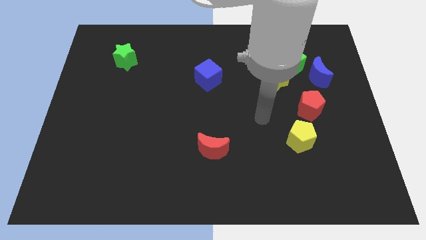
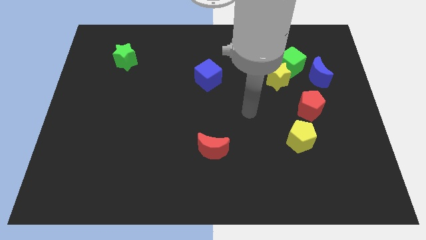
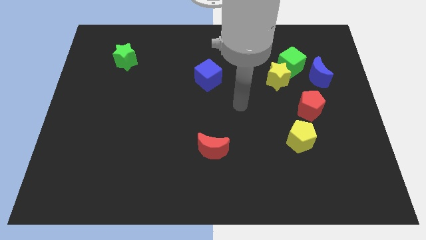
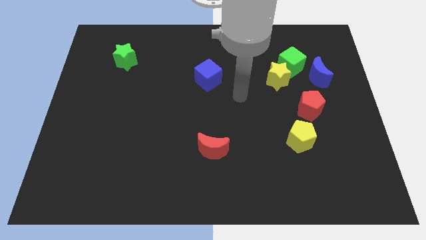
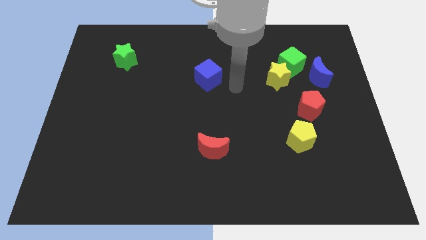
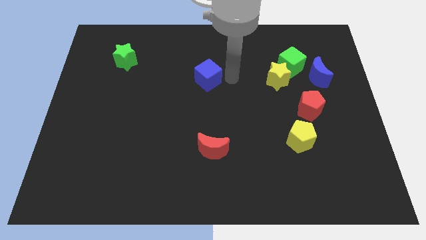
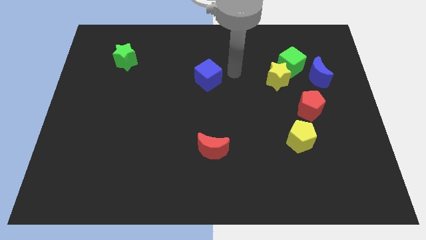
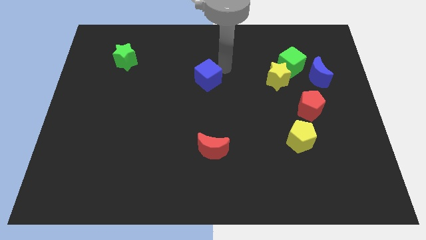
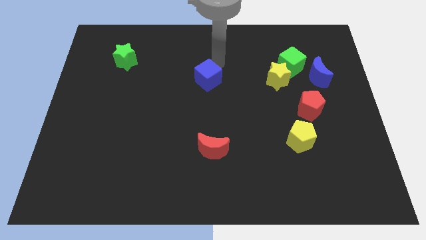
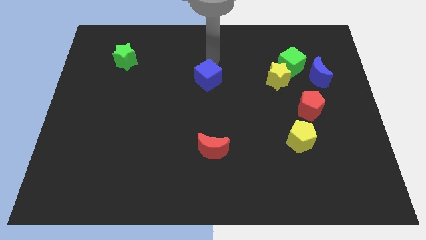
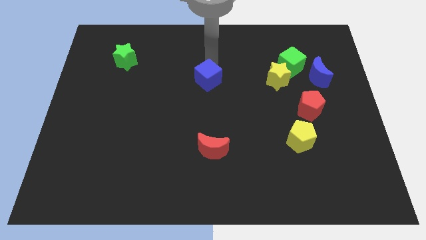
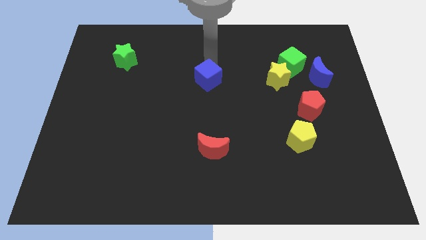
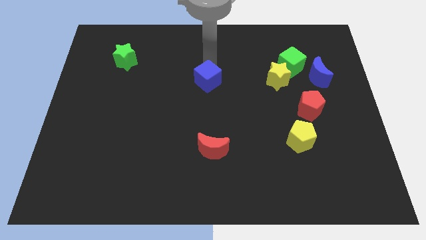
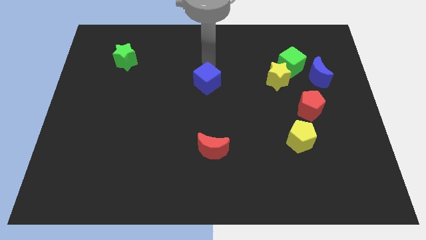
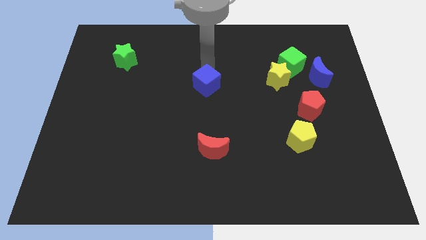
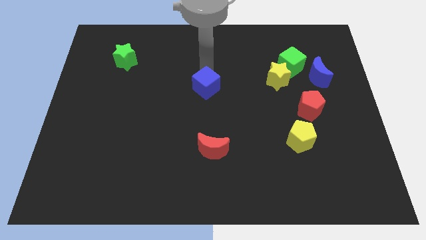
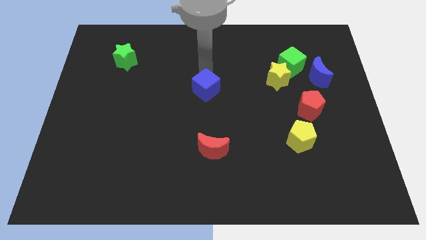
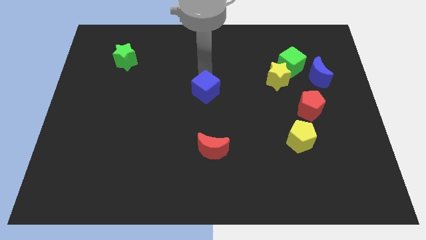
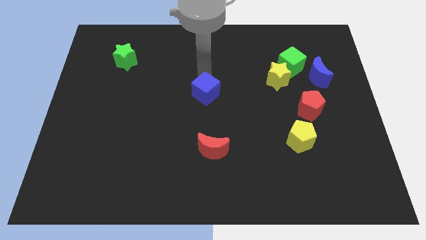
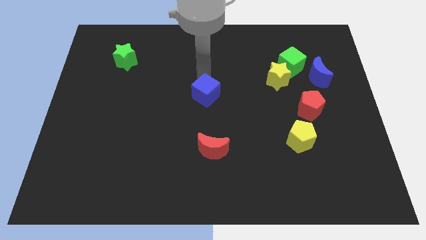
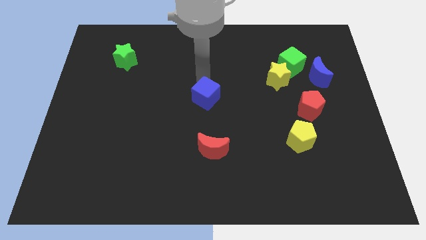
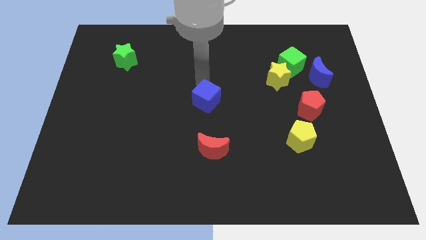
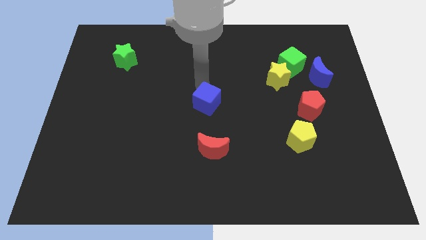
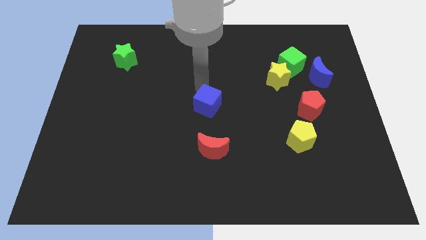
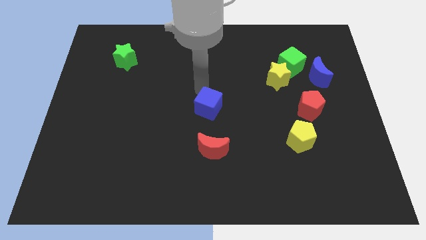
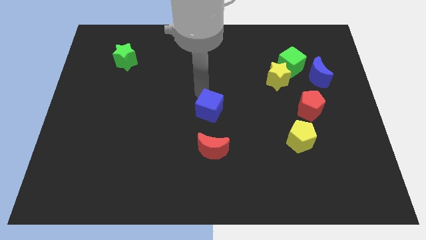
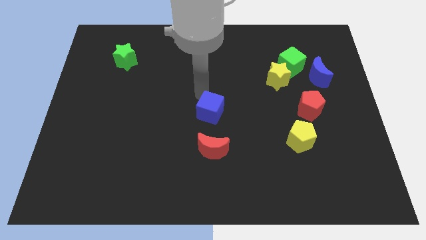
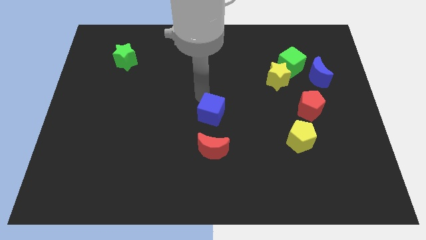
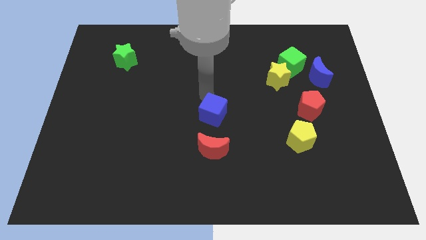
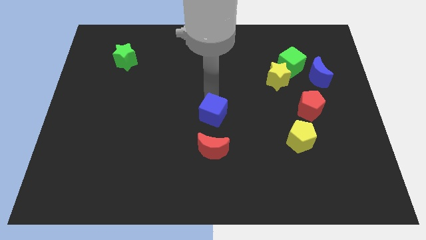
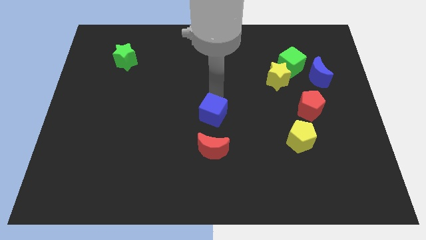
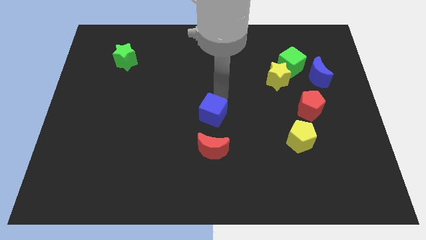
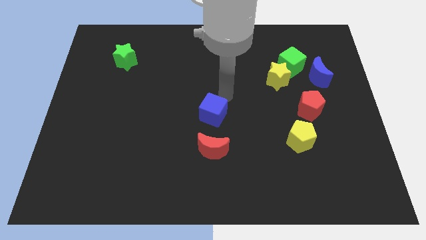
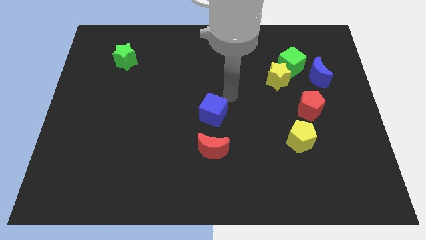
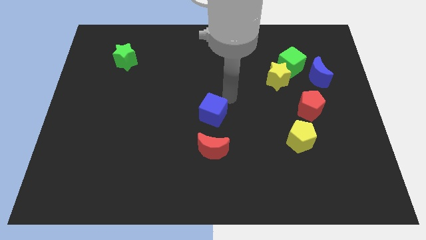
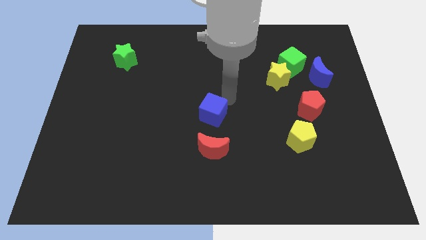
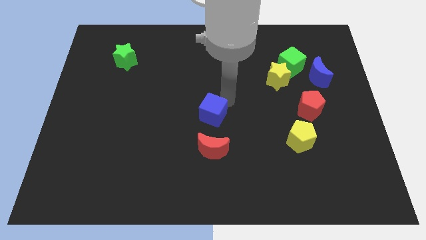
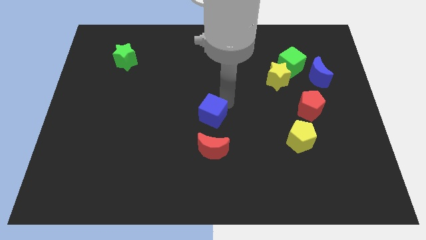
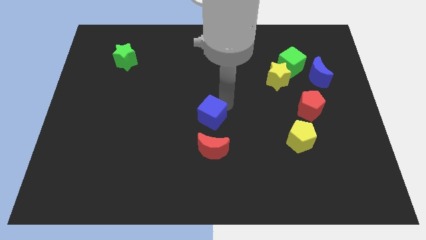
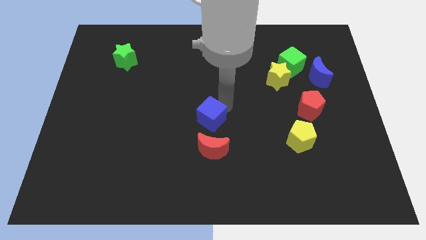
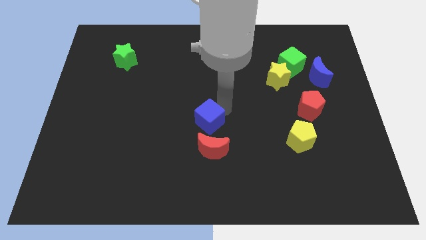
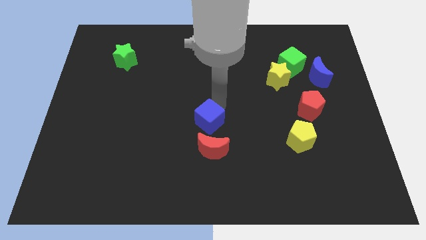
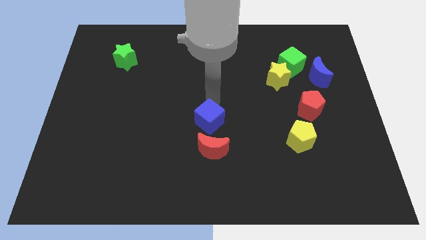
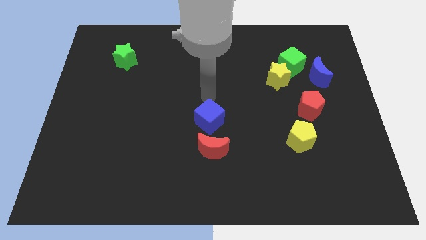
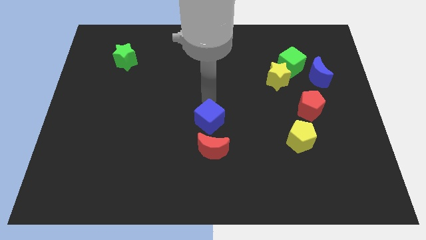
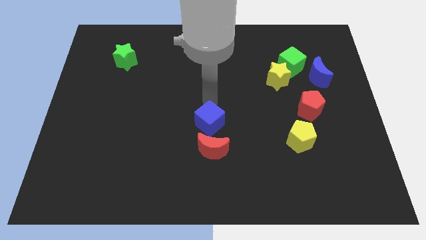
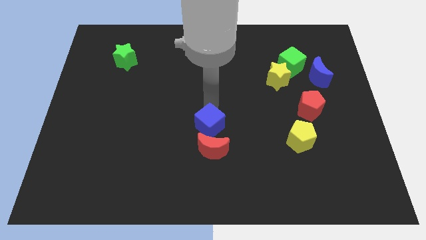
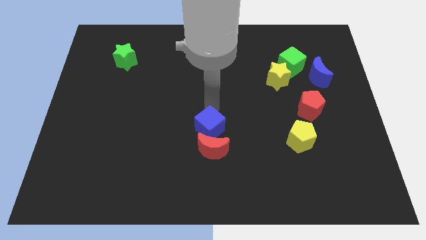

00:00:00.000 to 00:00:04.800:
put the blue cube towards the red moon

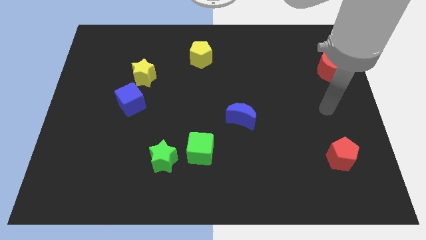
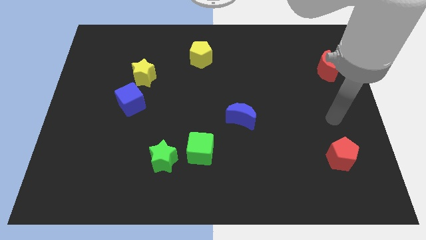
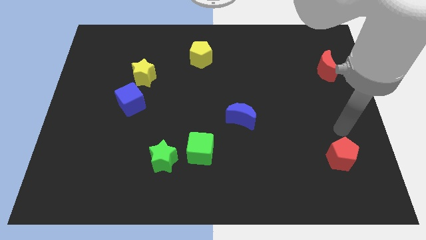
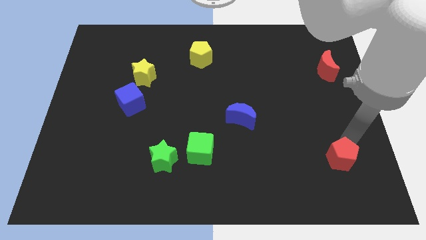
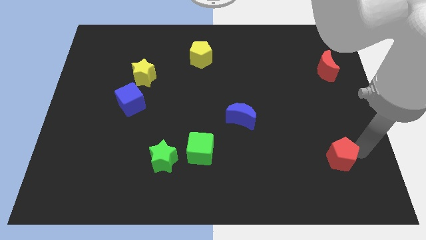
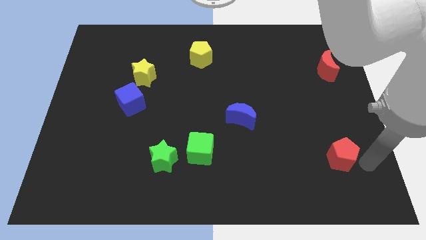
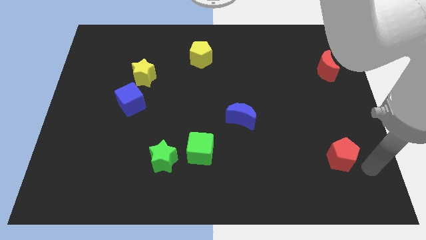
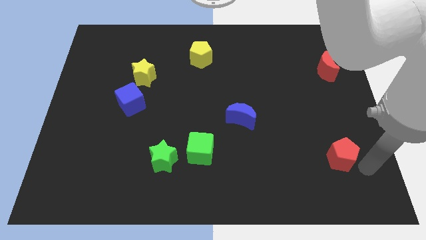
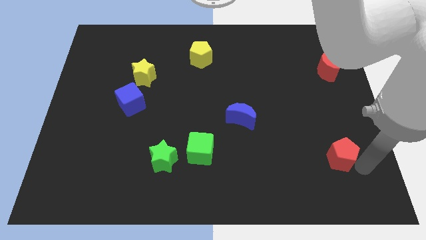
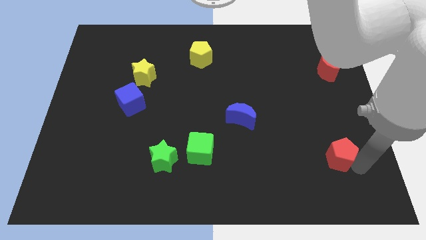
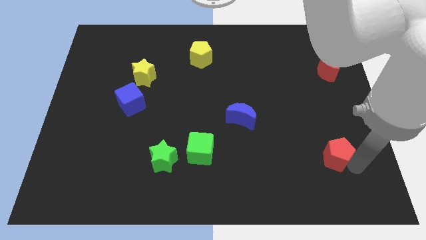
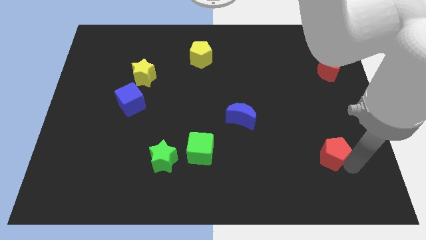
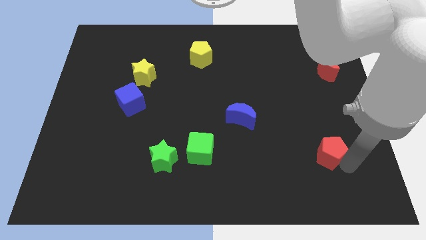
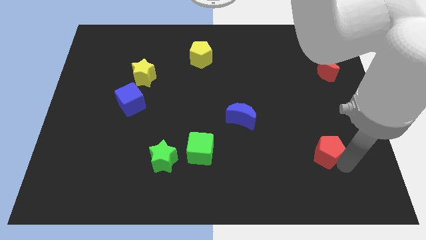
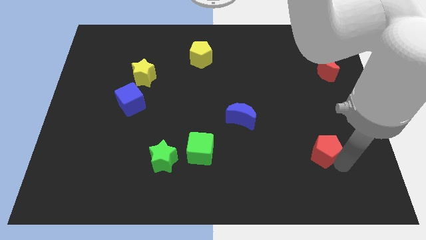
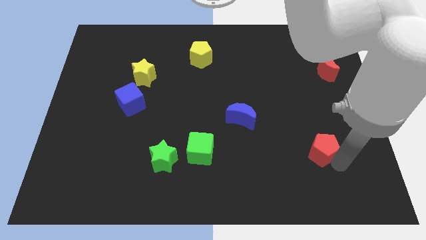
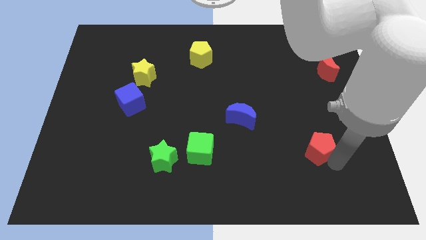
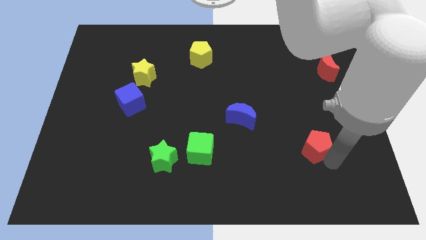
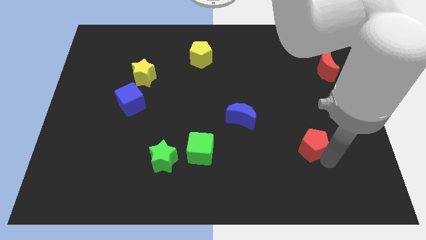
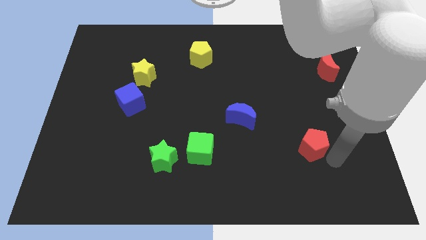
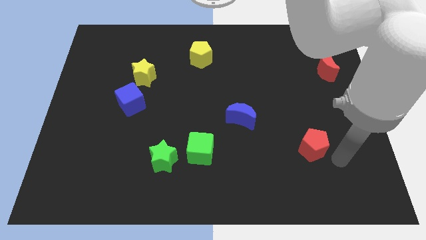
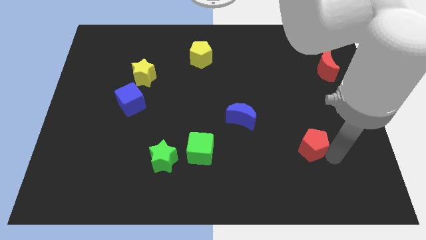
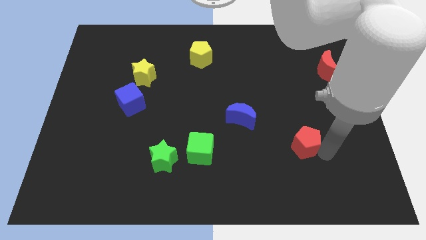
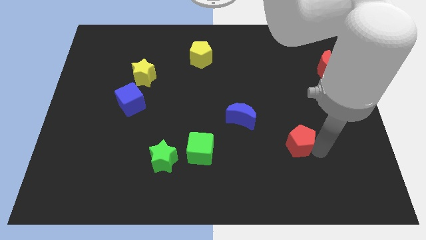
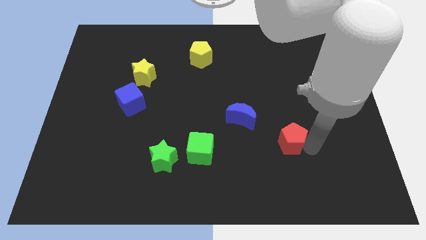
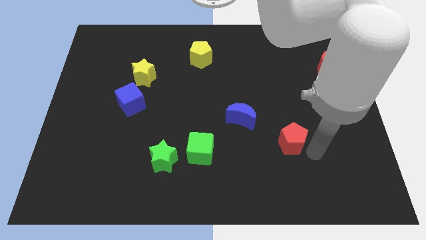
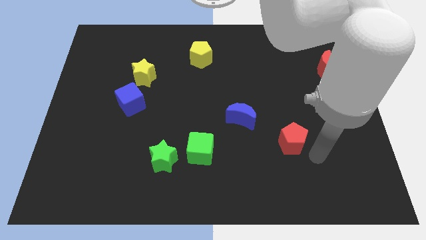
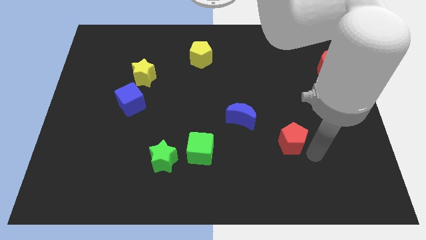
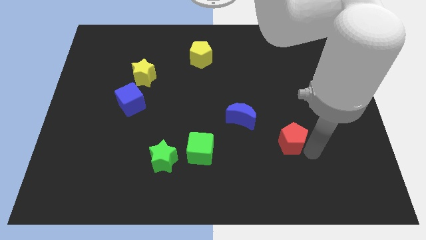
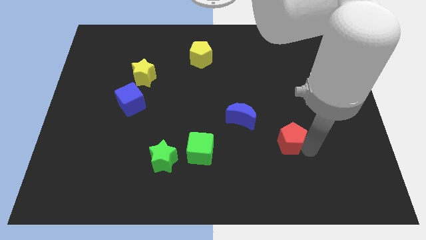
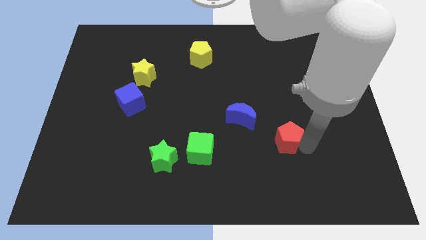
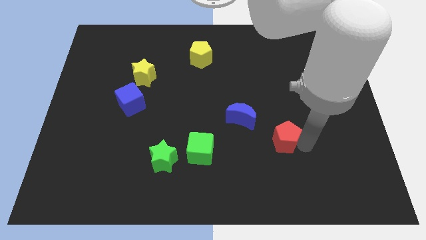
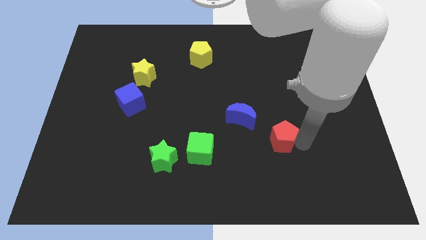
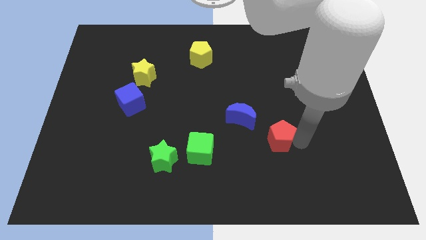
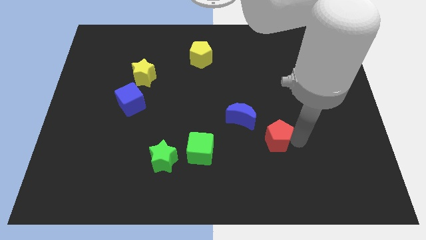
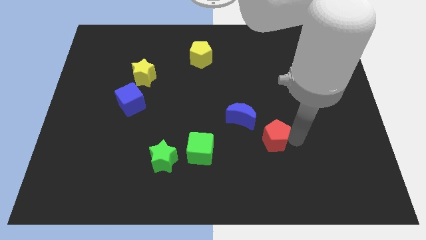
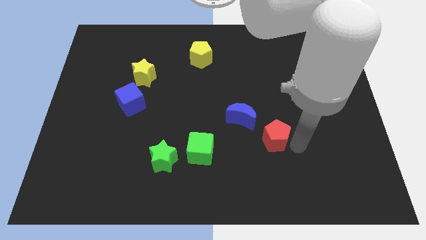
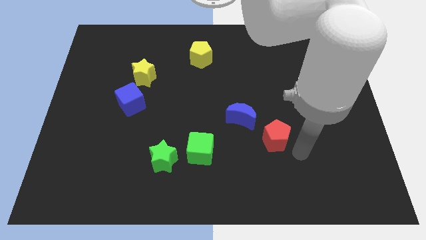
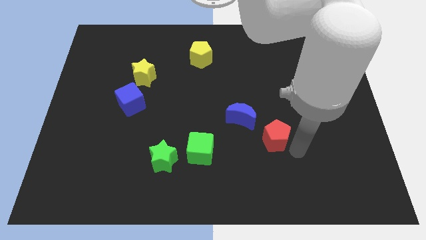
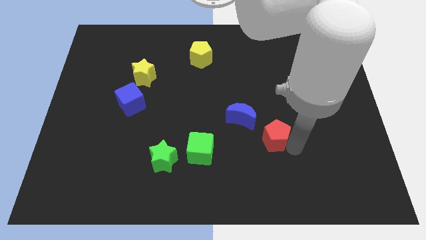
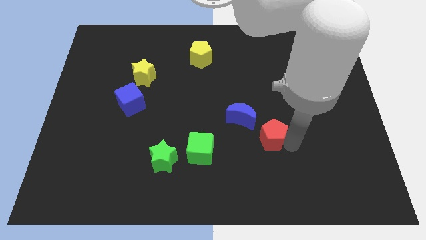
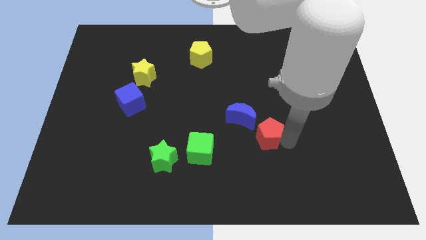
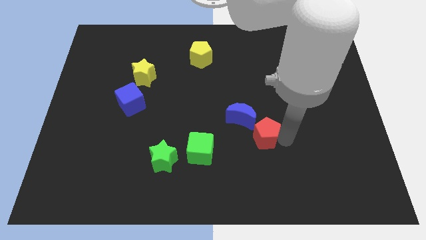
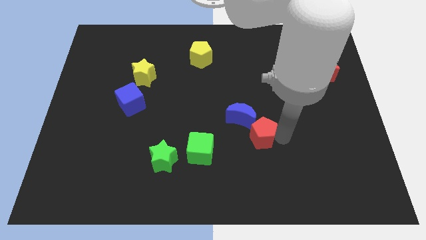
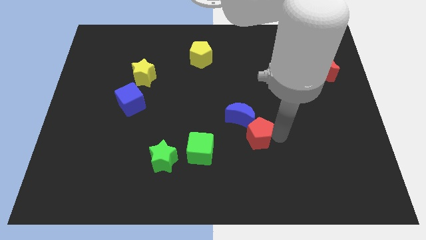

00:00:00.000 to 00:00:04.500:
slide the red pentagon towards the blue moon
